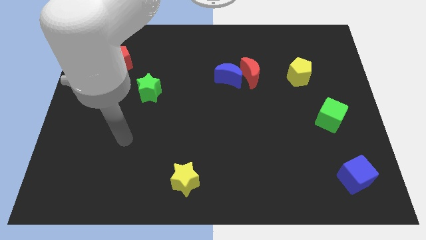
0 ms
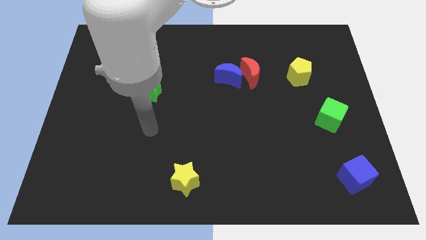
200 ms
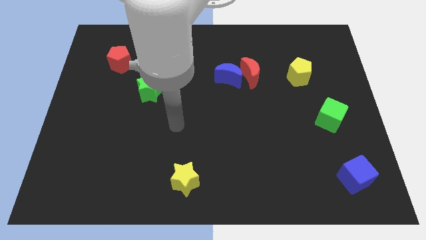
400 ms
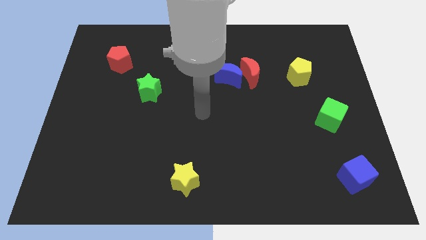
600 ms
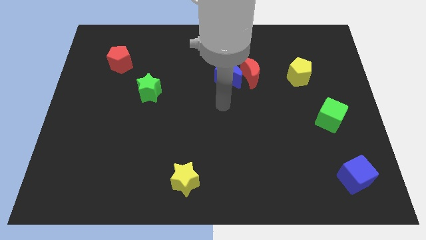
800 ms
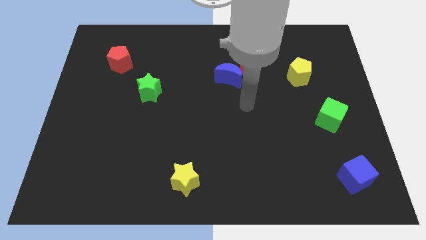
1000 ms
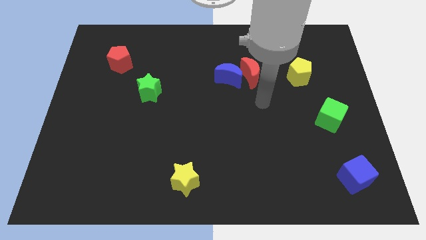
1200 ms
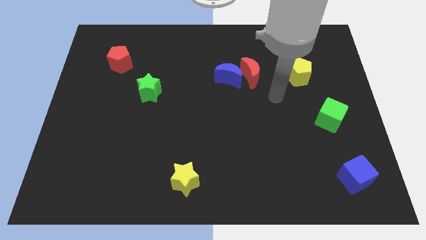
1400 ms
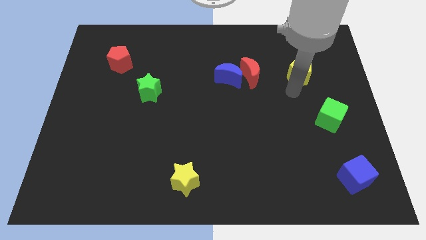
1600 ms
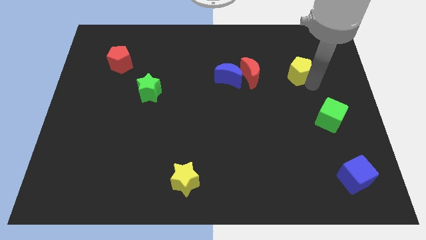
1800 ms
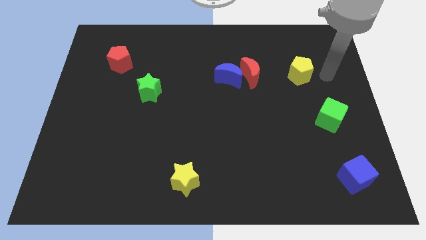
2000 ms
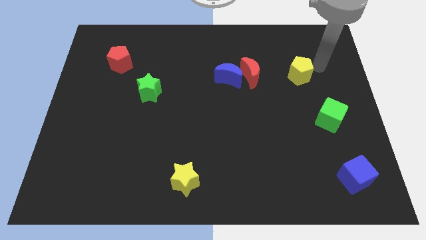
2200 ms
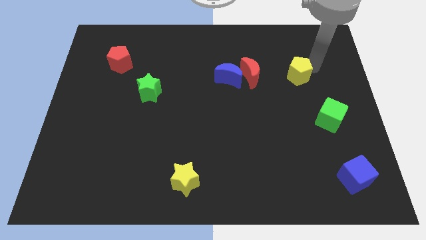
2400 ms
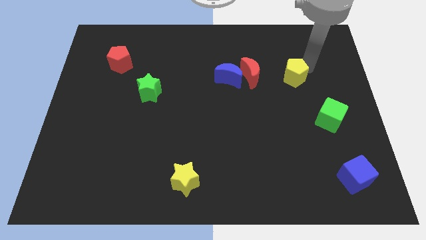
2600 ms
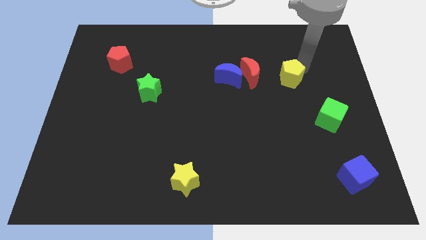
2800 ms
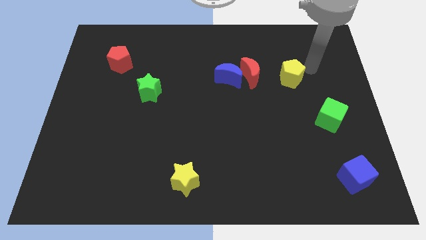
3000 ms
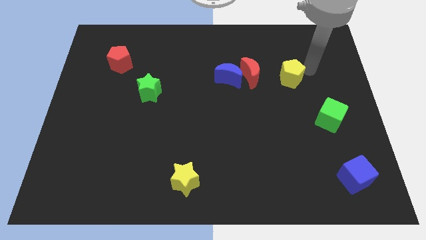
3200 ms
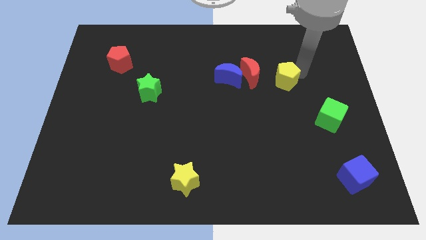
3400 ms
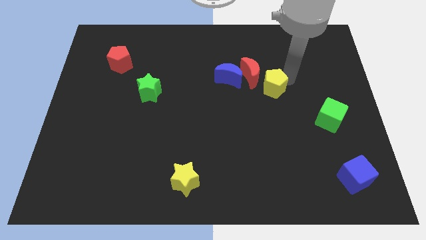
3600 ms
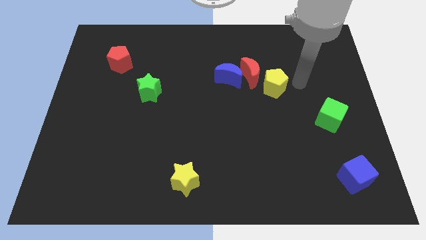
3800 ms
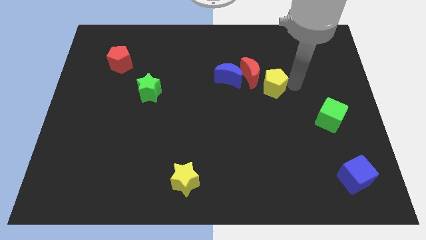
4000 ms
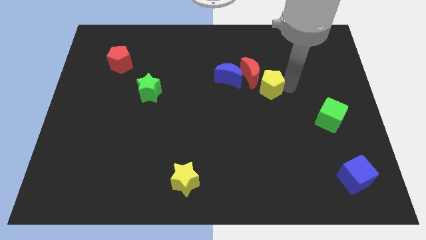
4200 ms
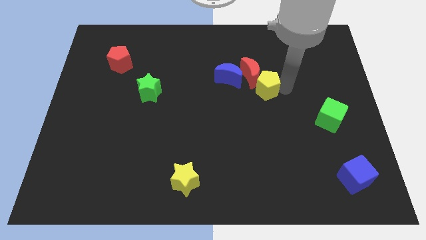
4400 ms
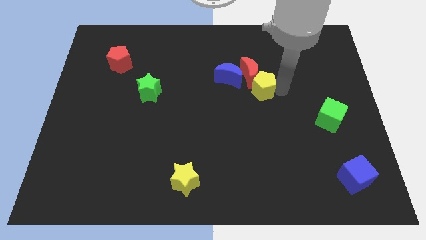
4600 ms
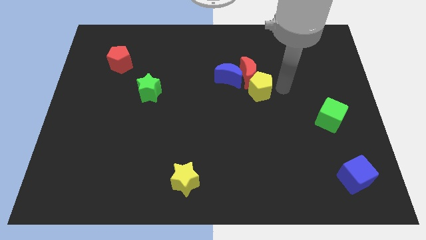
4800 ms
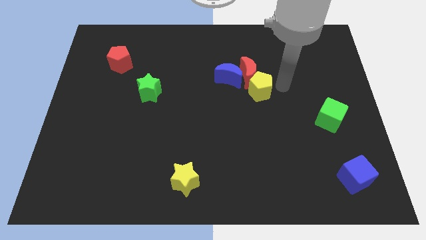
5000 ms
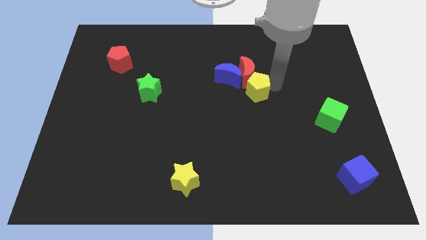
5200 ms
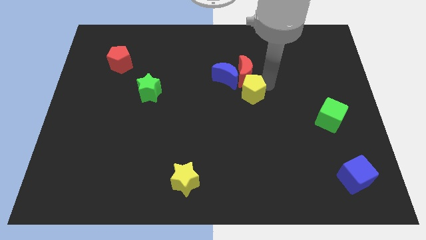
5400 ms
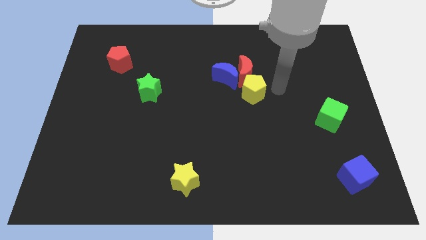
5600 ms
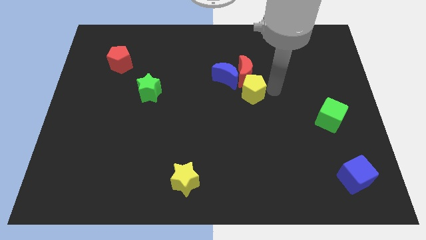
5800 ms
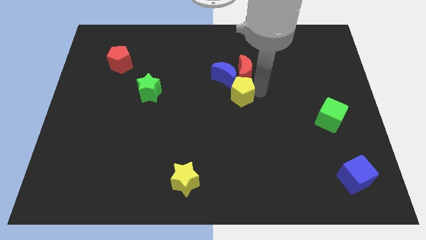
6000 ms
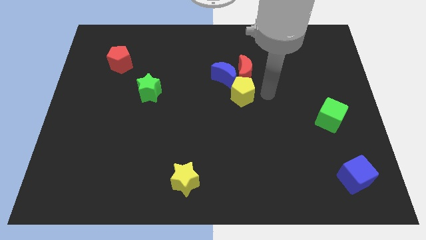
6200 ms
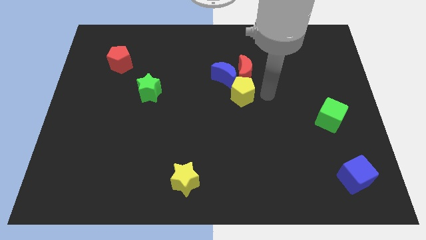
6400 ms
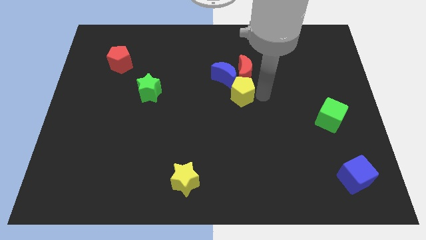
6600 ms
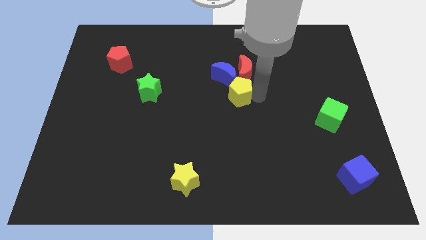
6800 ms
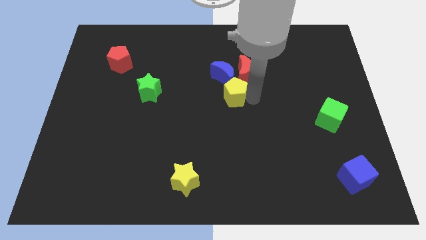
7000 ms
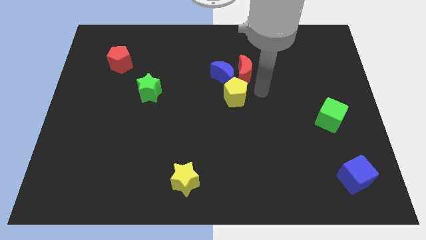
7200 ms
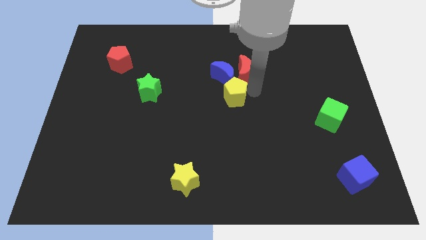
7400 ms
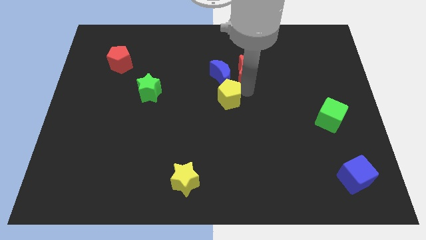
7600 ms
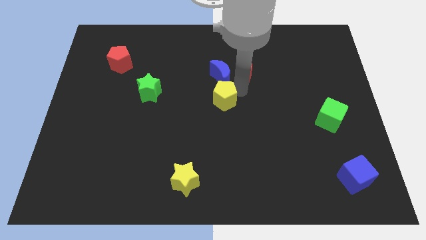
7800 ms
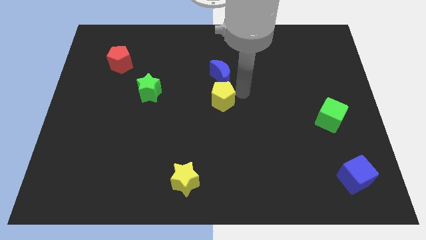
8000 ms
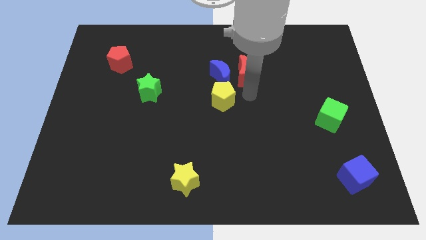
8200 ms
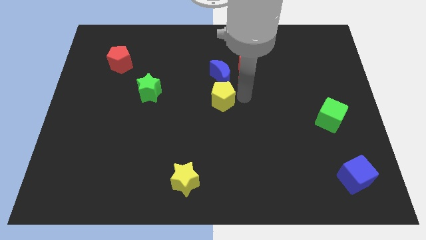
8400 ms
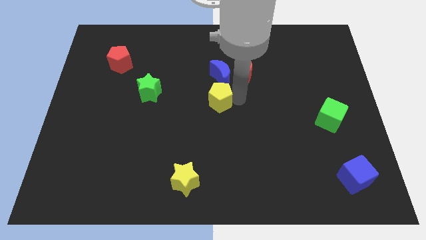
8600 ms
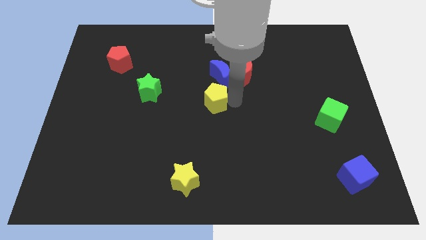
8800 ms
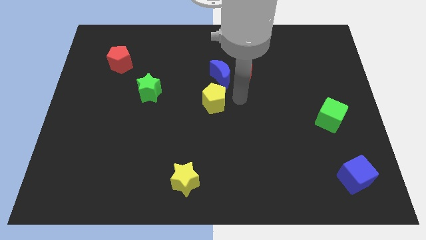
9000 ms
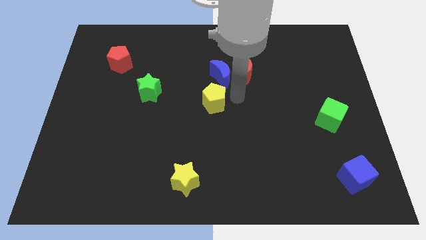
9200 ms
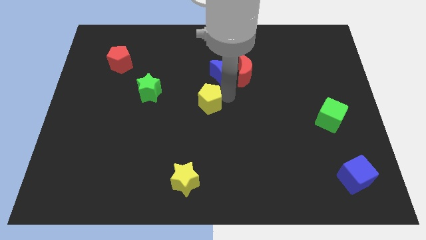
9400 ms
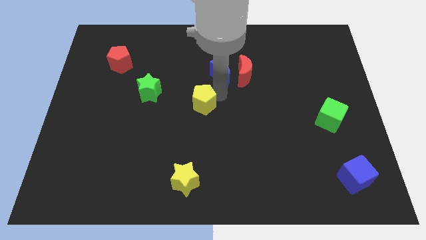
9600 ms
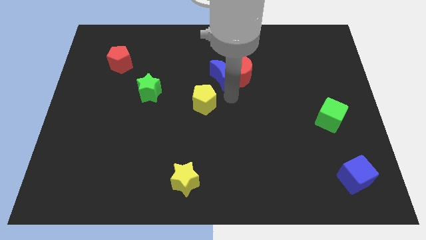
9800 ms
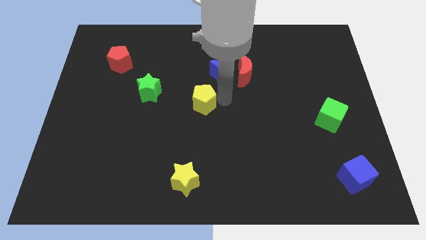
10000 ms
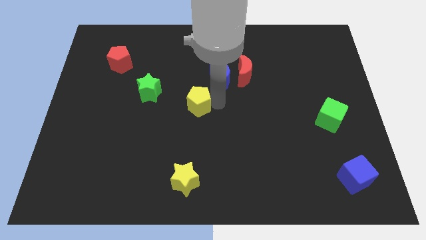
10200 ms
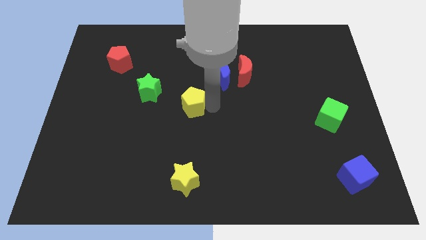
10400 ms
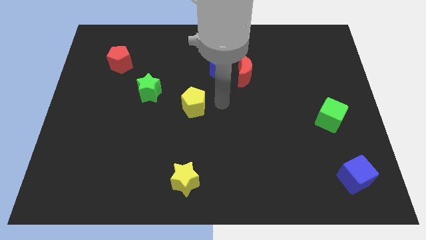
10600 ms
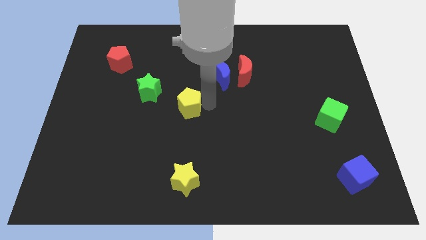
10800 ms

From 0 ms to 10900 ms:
put the yellow pentagon to the bottom right side of the green star

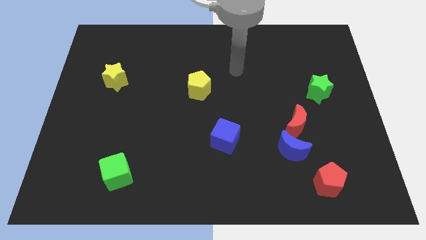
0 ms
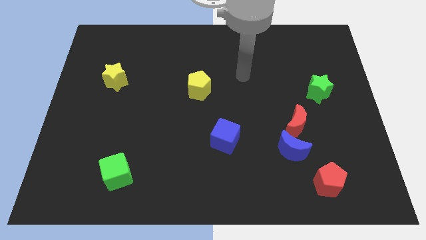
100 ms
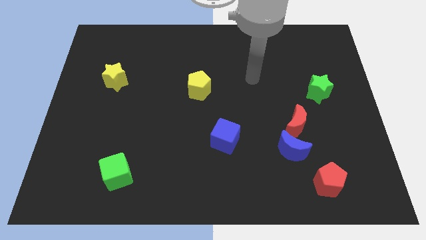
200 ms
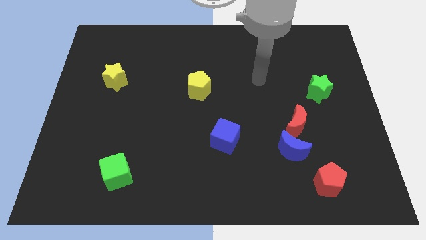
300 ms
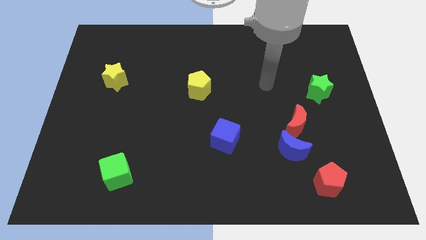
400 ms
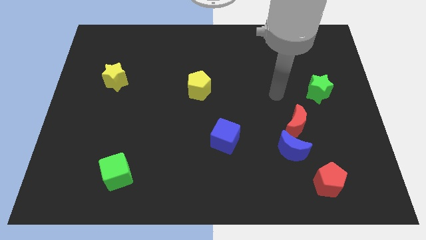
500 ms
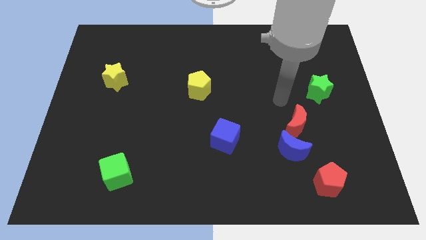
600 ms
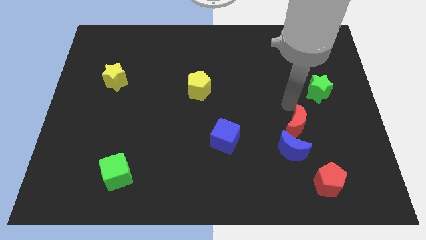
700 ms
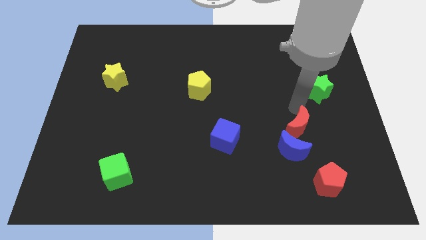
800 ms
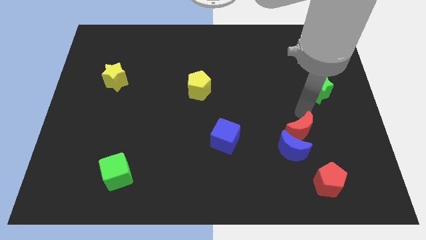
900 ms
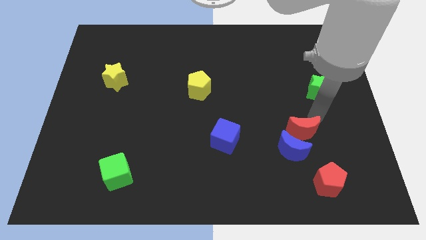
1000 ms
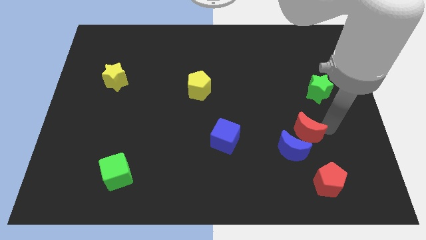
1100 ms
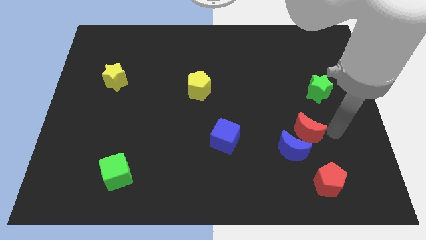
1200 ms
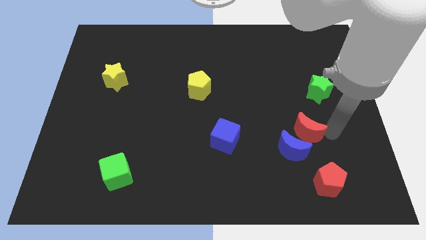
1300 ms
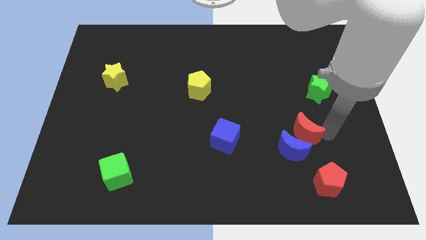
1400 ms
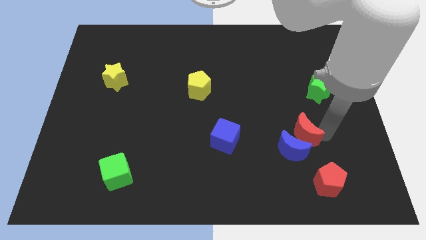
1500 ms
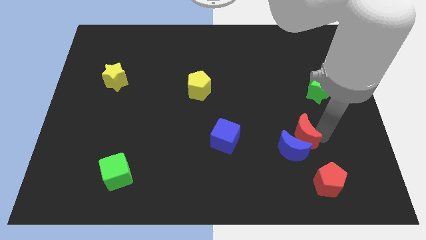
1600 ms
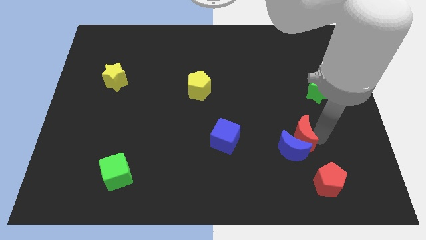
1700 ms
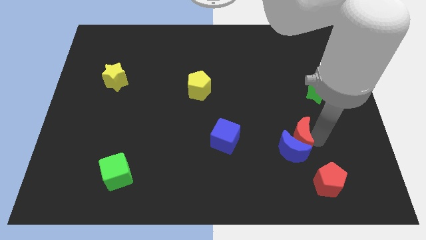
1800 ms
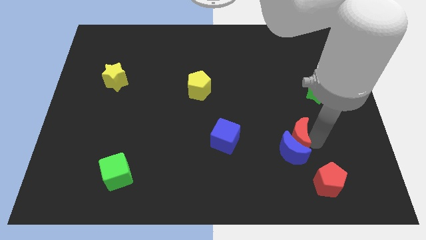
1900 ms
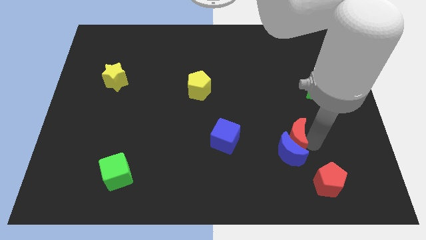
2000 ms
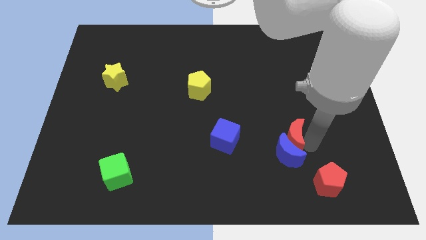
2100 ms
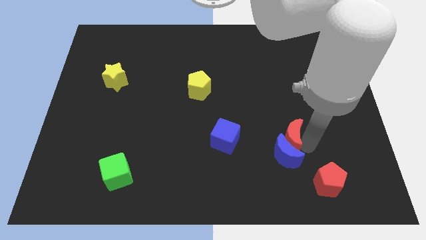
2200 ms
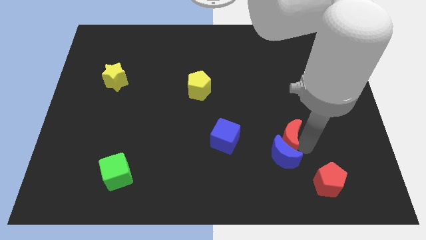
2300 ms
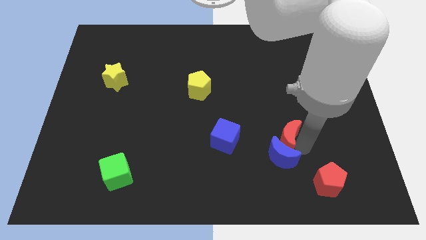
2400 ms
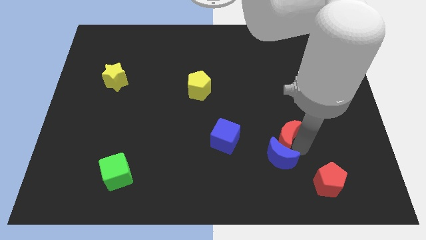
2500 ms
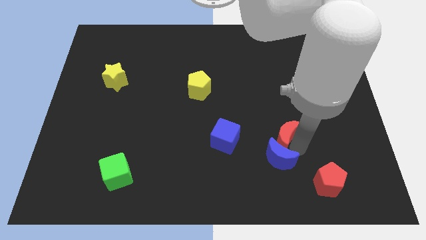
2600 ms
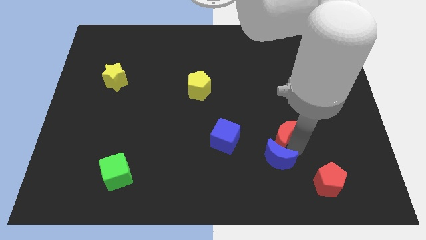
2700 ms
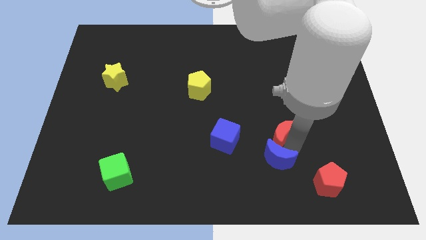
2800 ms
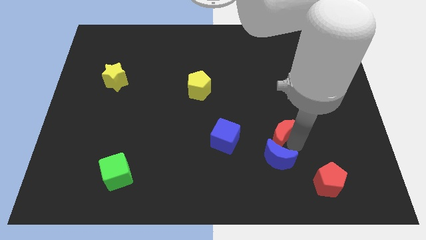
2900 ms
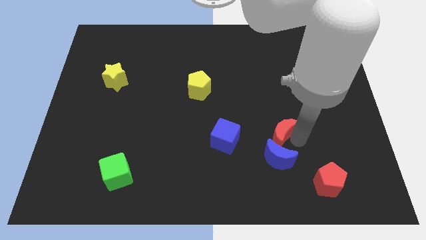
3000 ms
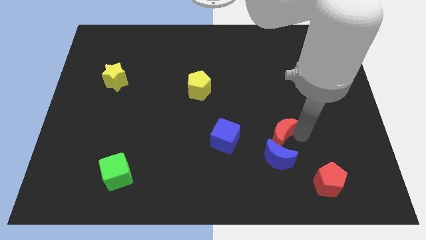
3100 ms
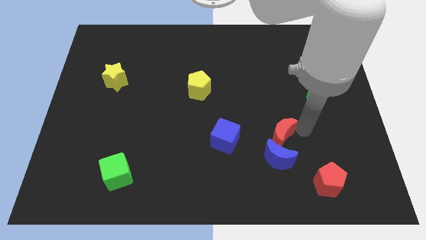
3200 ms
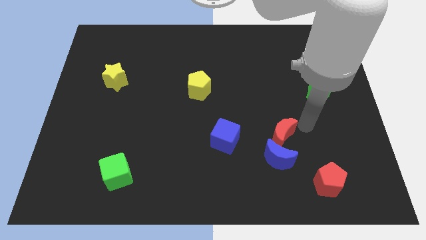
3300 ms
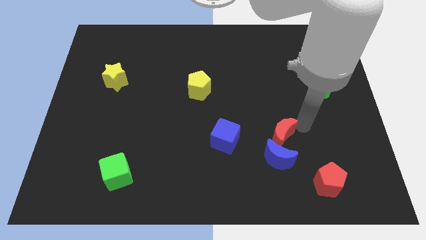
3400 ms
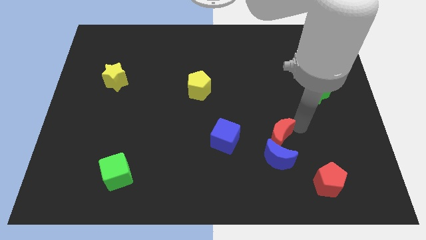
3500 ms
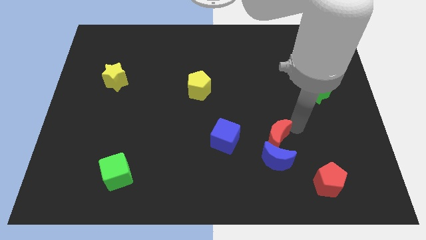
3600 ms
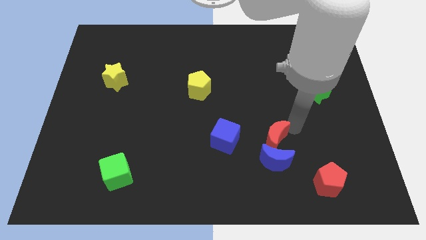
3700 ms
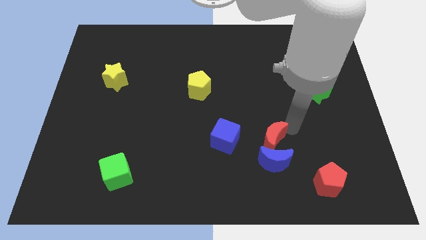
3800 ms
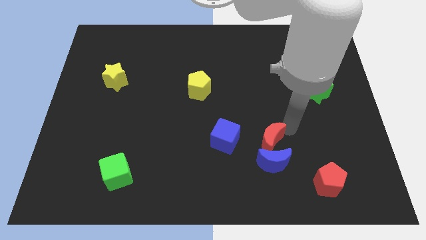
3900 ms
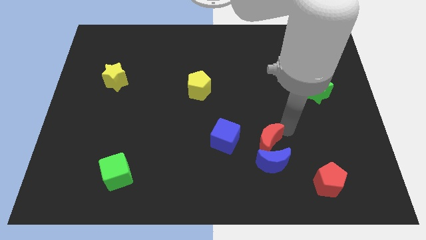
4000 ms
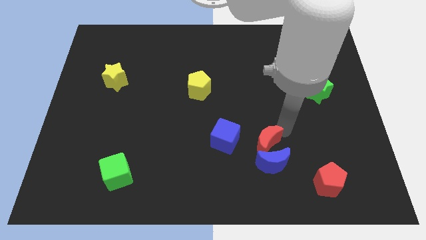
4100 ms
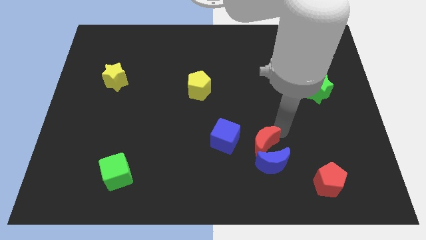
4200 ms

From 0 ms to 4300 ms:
slide the red moon to the bottom right of the blue cube
